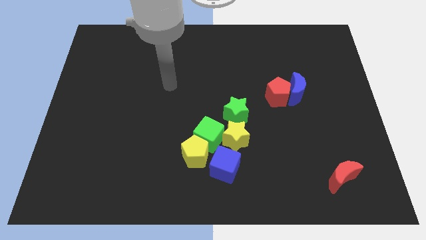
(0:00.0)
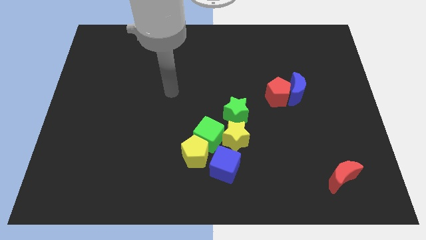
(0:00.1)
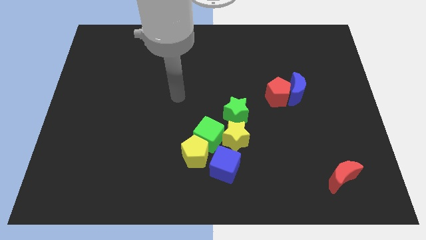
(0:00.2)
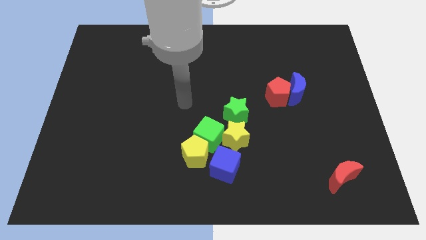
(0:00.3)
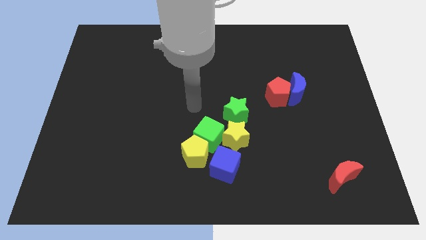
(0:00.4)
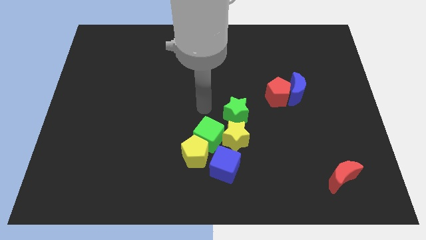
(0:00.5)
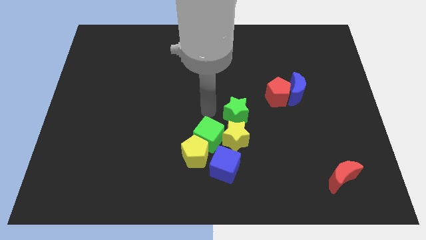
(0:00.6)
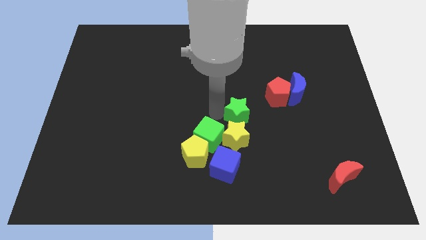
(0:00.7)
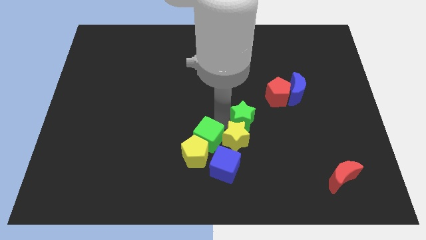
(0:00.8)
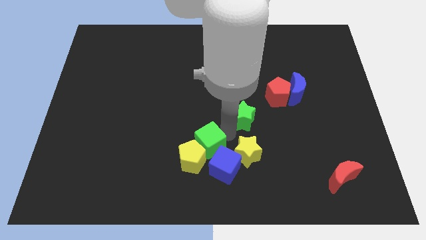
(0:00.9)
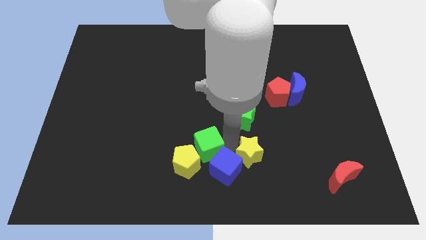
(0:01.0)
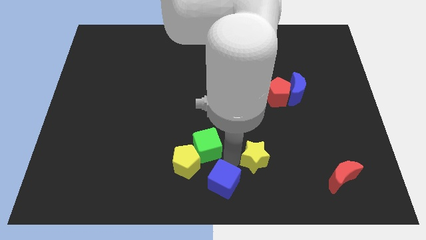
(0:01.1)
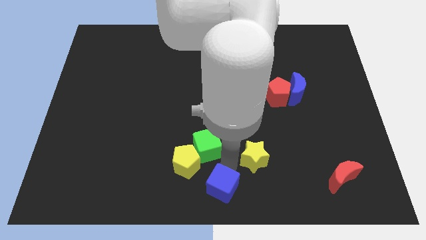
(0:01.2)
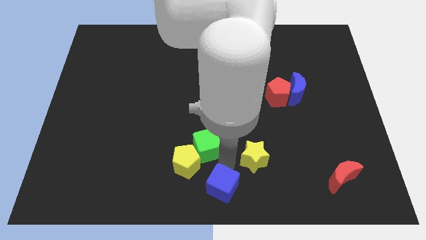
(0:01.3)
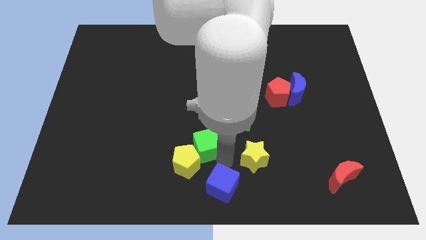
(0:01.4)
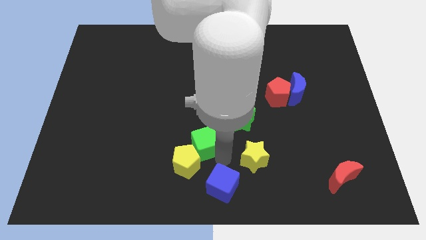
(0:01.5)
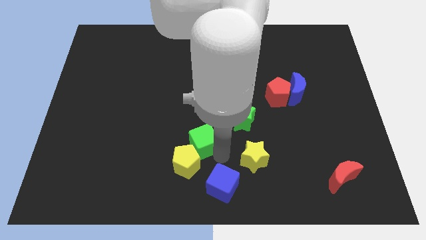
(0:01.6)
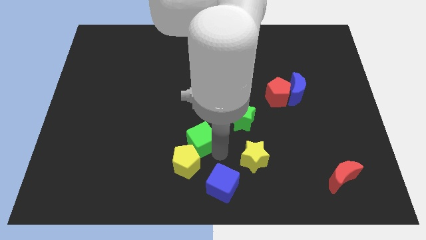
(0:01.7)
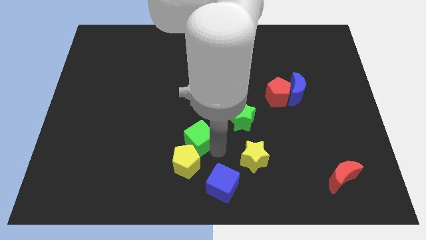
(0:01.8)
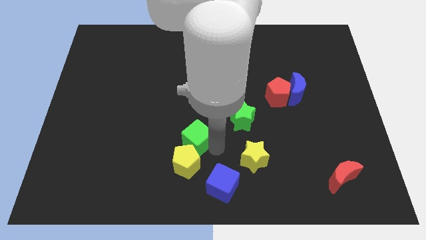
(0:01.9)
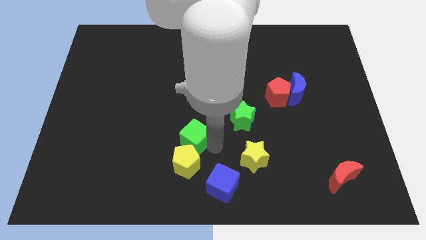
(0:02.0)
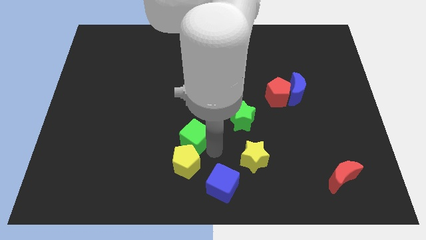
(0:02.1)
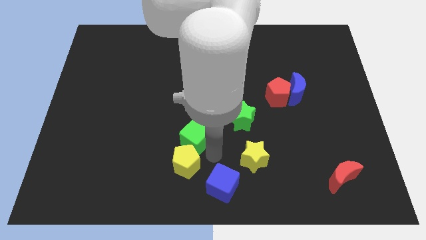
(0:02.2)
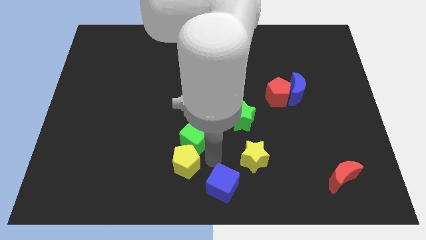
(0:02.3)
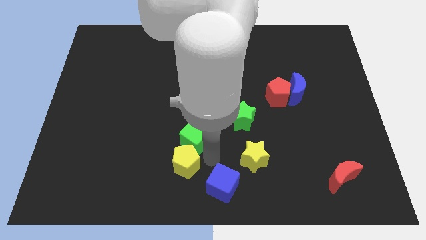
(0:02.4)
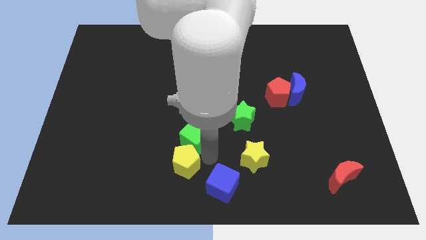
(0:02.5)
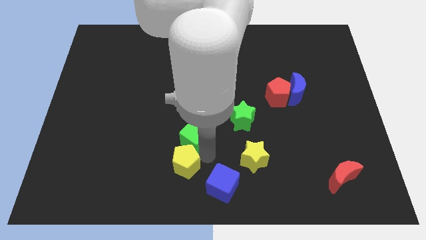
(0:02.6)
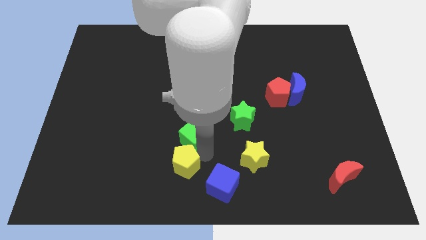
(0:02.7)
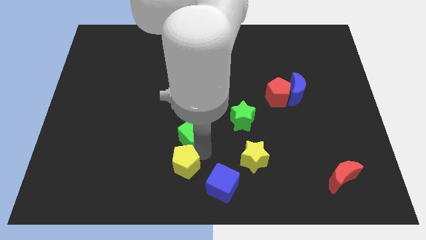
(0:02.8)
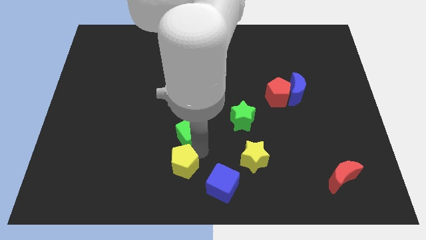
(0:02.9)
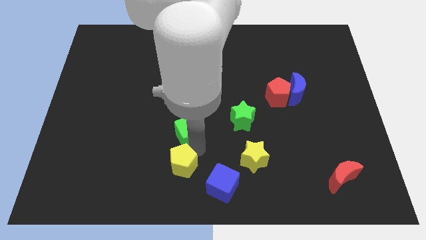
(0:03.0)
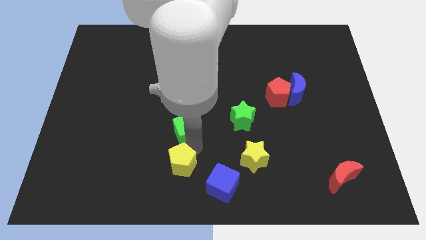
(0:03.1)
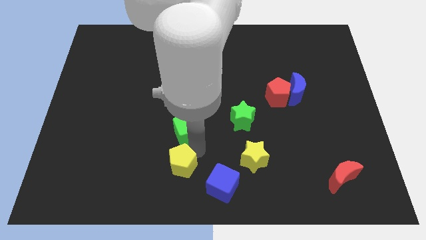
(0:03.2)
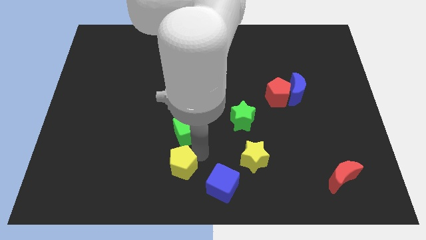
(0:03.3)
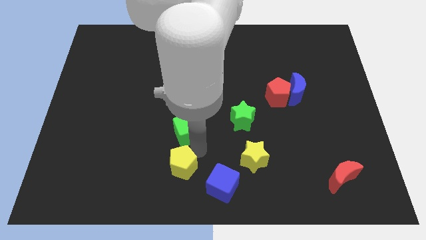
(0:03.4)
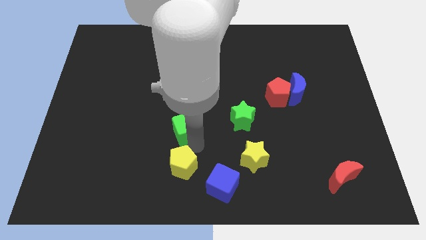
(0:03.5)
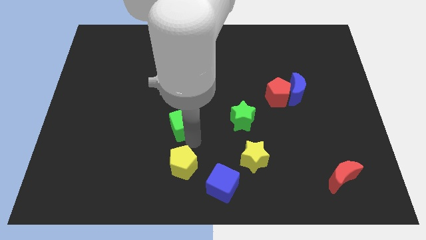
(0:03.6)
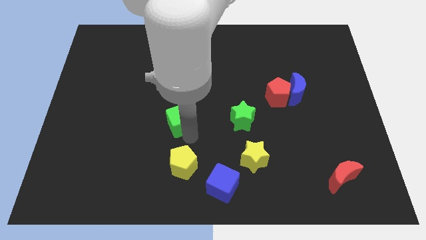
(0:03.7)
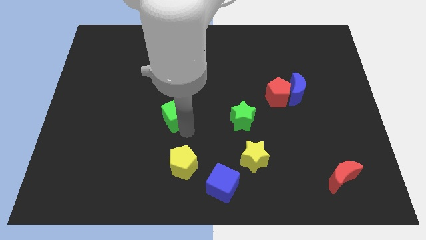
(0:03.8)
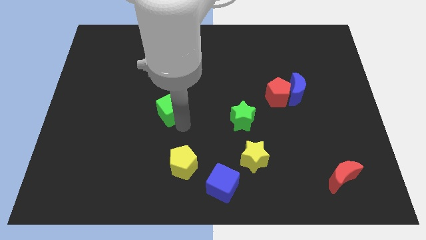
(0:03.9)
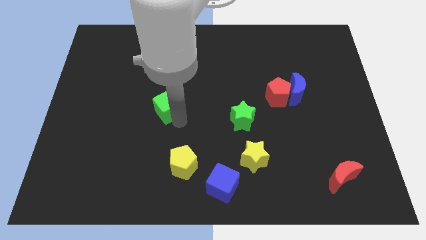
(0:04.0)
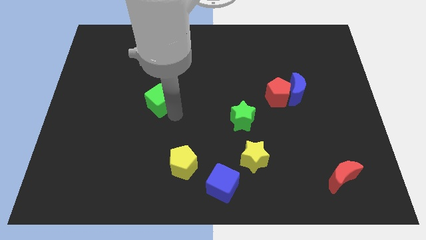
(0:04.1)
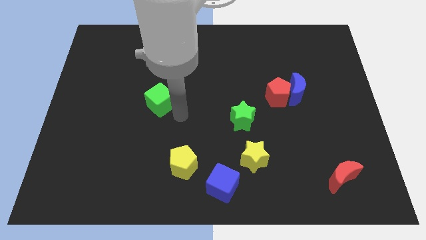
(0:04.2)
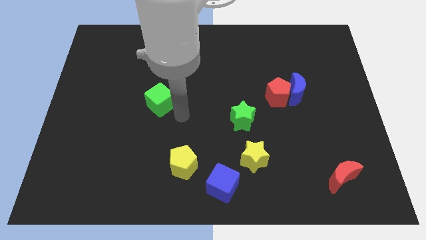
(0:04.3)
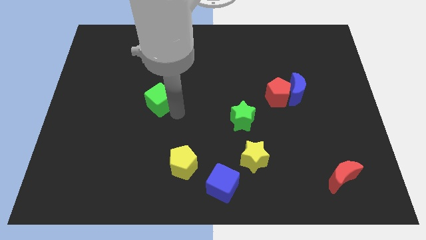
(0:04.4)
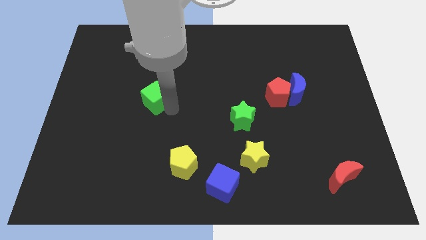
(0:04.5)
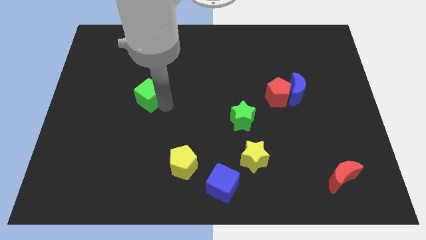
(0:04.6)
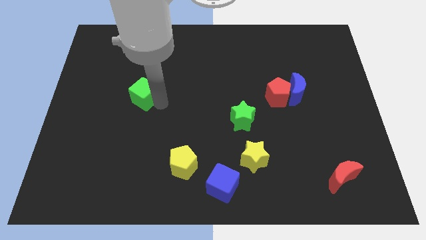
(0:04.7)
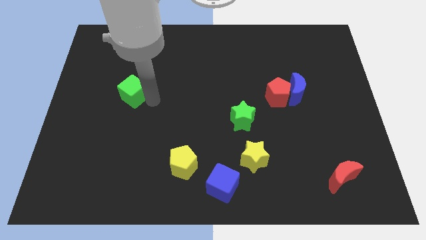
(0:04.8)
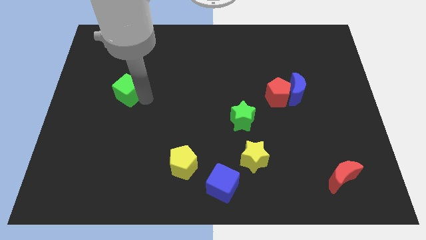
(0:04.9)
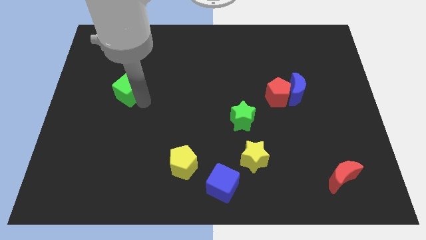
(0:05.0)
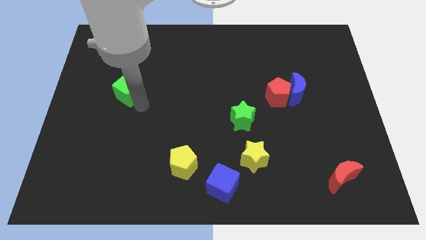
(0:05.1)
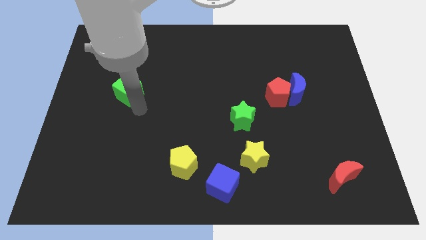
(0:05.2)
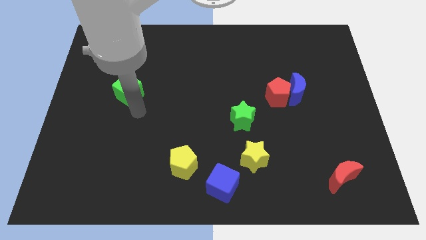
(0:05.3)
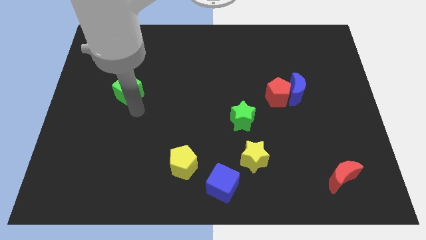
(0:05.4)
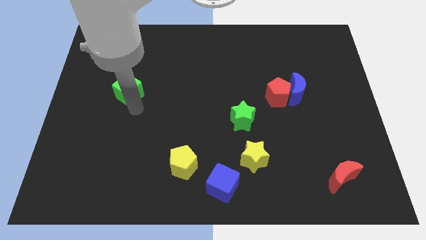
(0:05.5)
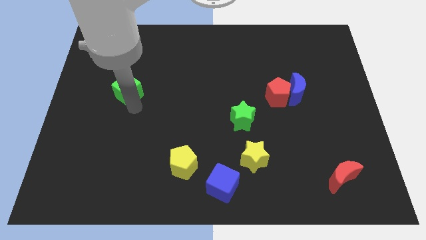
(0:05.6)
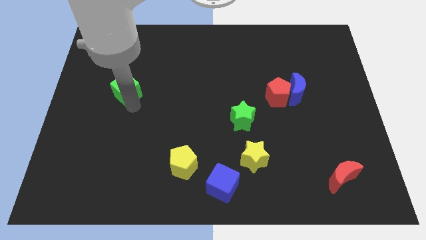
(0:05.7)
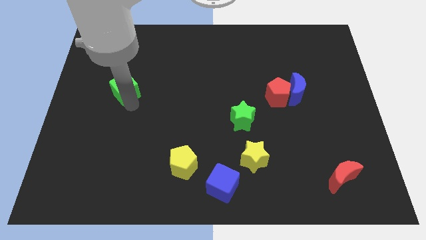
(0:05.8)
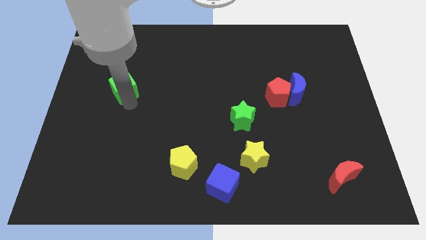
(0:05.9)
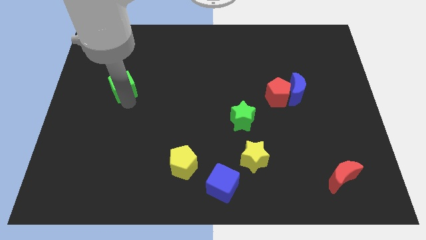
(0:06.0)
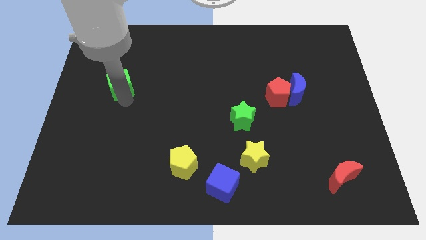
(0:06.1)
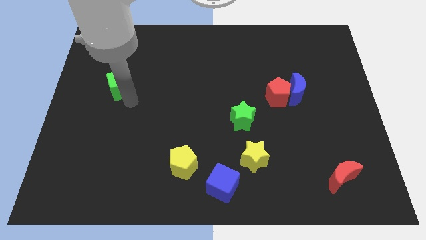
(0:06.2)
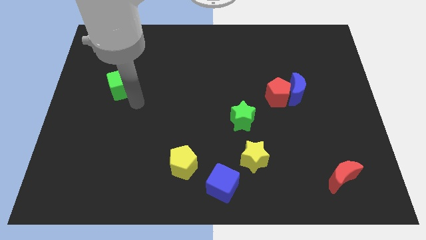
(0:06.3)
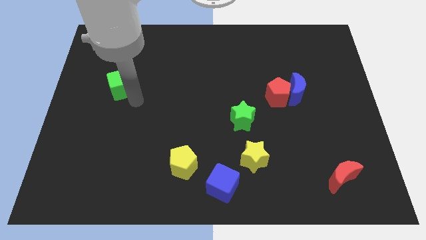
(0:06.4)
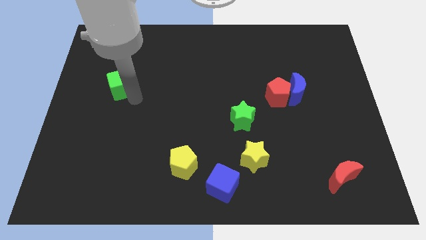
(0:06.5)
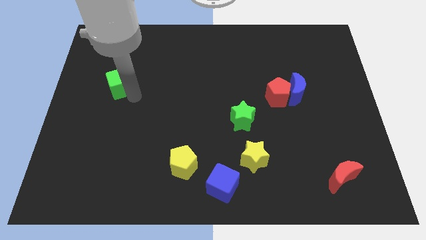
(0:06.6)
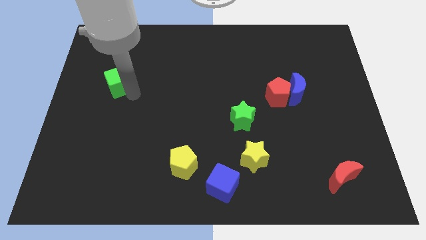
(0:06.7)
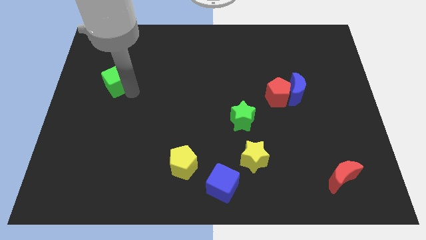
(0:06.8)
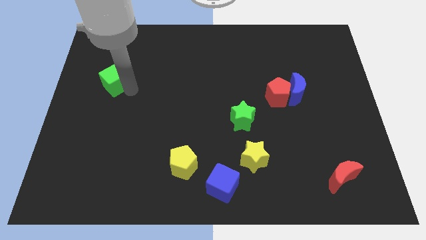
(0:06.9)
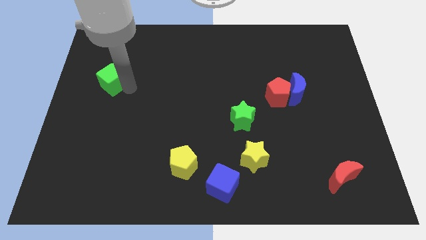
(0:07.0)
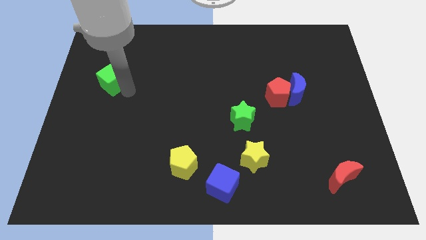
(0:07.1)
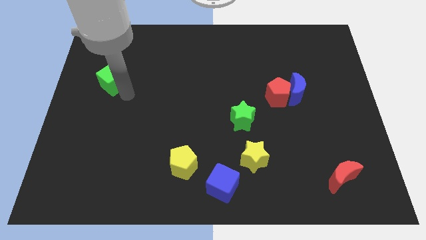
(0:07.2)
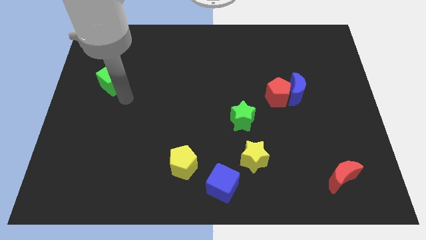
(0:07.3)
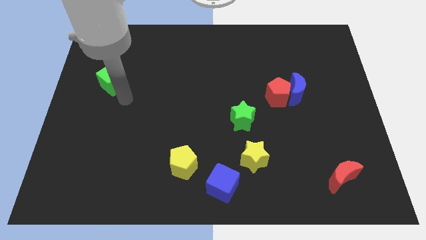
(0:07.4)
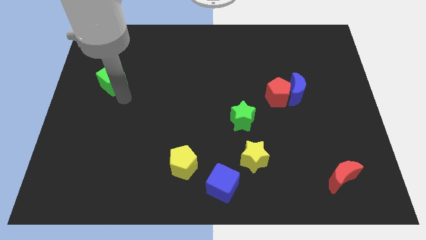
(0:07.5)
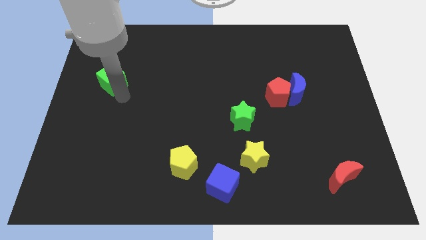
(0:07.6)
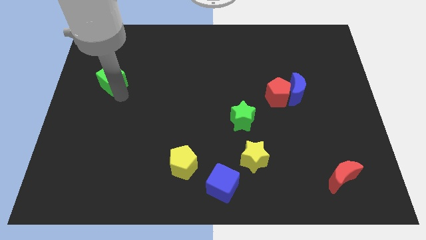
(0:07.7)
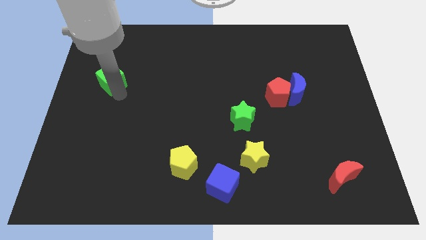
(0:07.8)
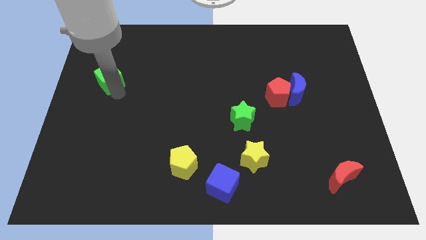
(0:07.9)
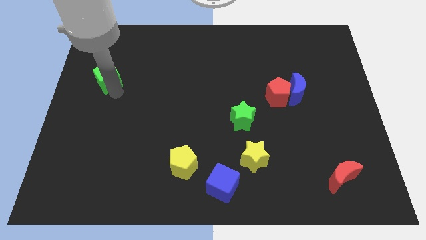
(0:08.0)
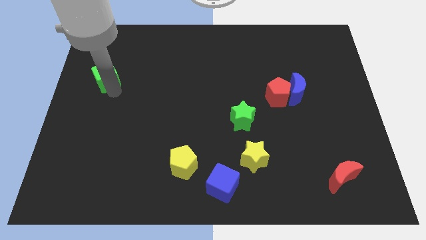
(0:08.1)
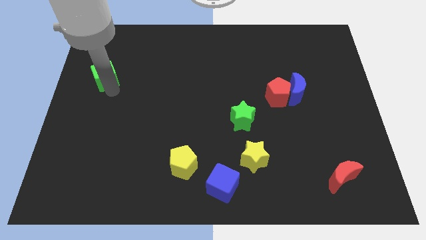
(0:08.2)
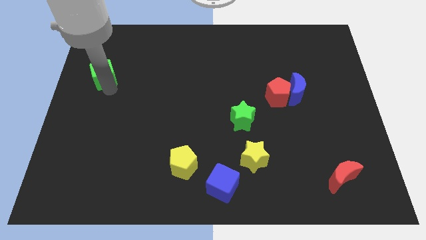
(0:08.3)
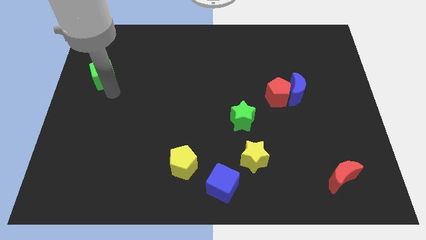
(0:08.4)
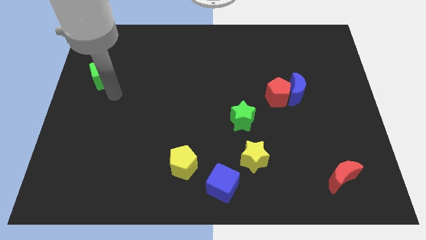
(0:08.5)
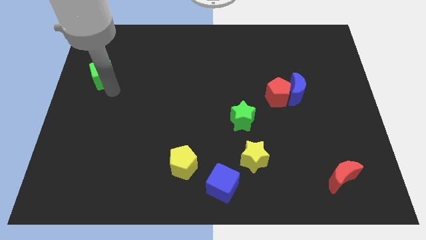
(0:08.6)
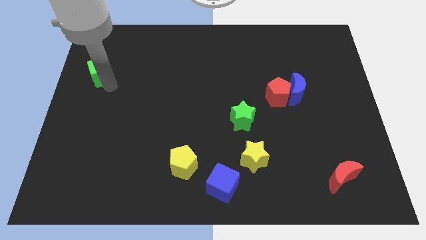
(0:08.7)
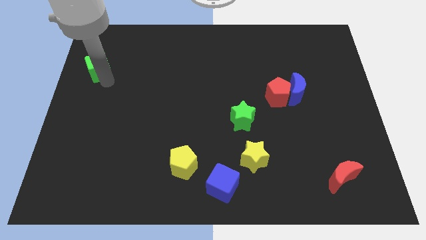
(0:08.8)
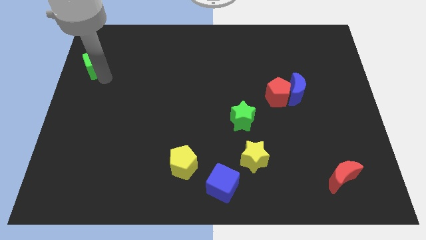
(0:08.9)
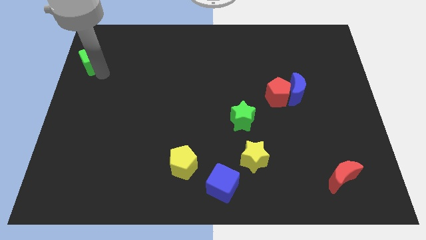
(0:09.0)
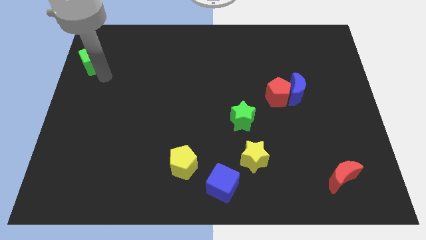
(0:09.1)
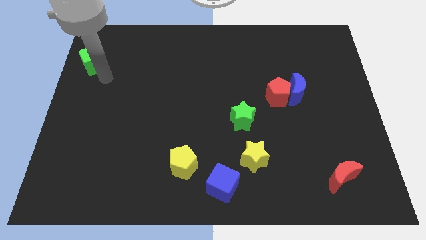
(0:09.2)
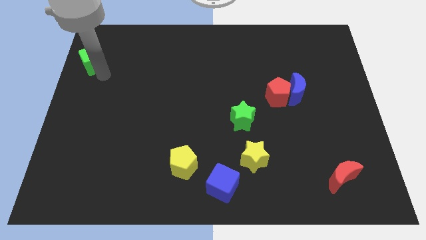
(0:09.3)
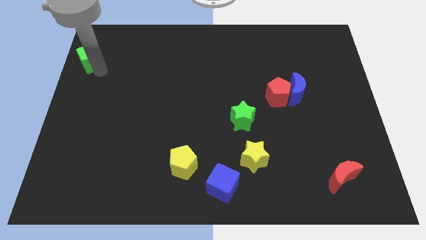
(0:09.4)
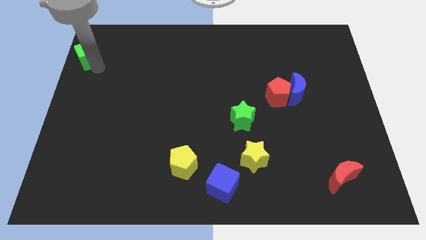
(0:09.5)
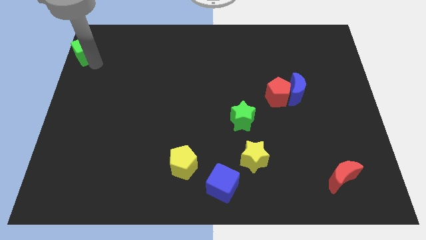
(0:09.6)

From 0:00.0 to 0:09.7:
push the green cube to the top left corner
